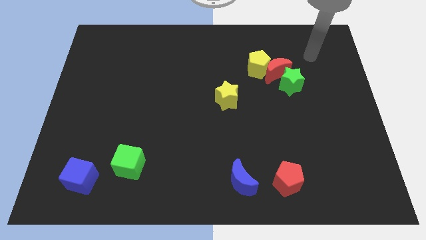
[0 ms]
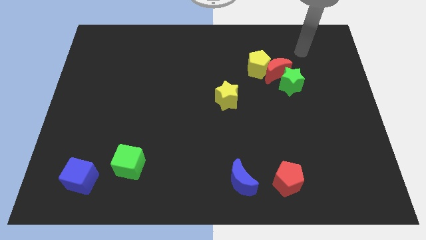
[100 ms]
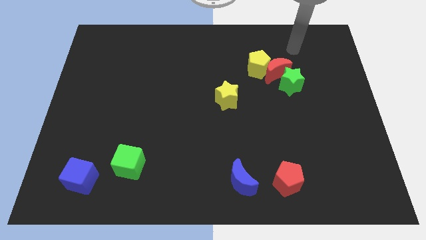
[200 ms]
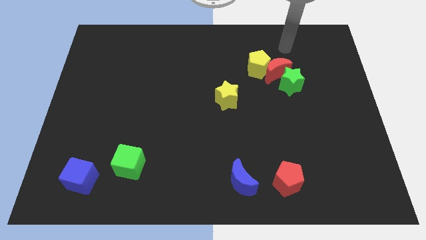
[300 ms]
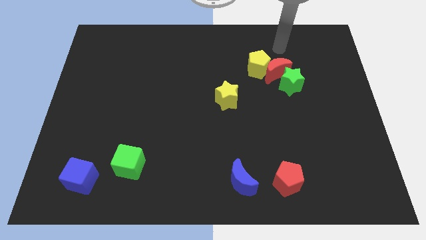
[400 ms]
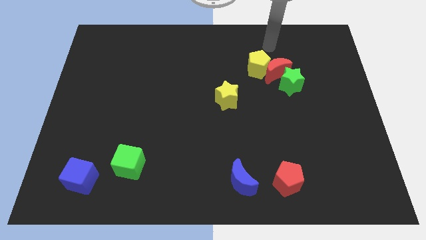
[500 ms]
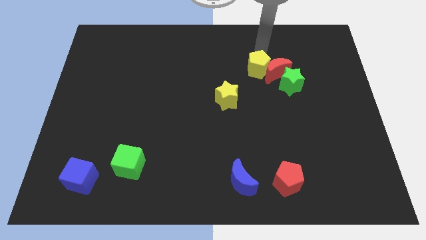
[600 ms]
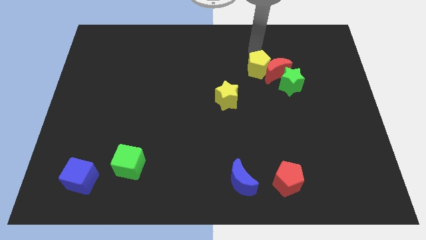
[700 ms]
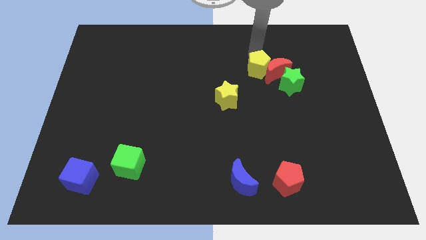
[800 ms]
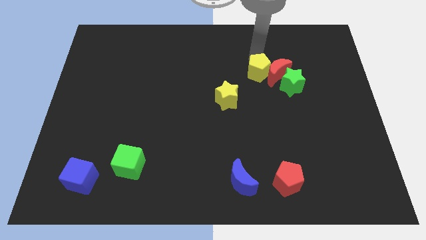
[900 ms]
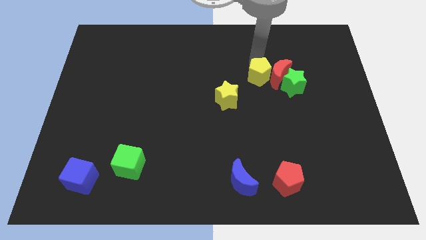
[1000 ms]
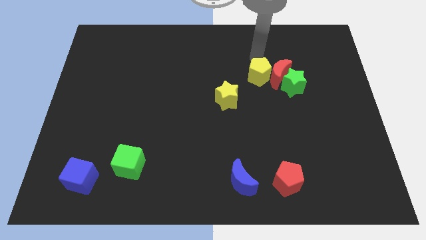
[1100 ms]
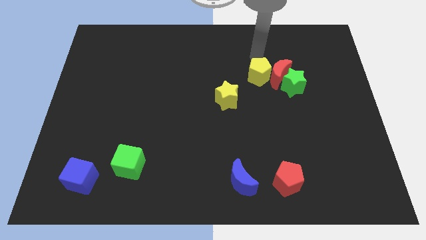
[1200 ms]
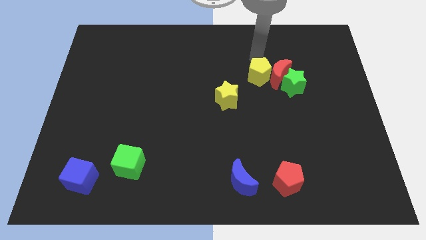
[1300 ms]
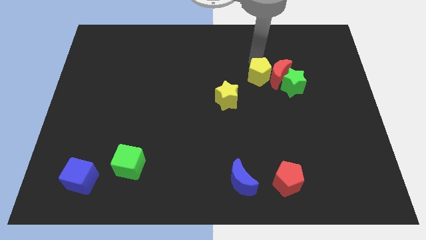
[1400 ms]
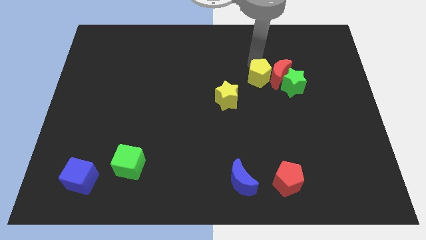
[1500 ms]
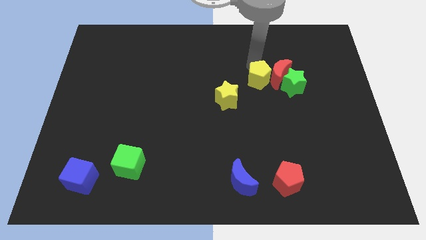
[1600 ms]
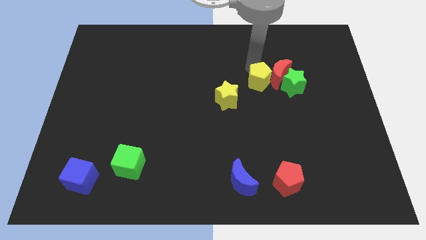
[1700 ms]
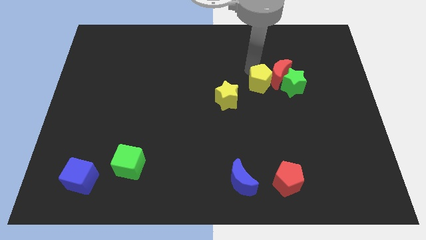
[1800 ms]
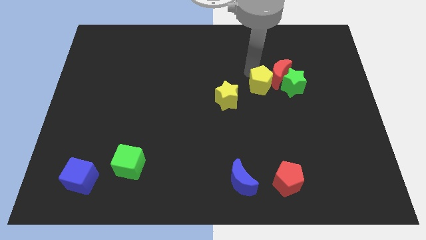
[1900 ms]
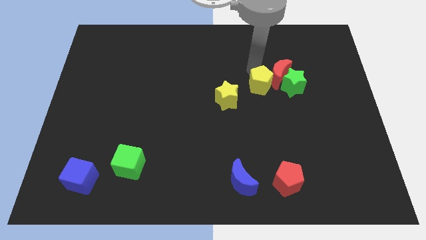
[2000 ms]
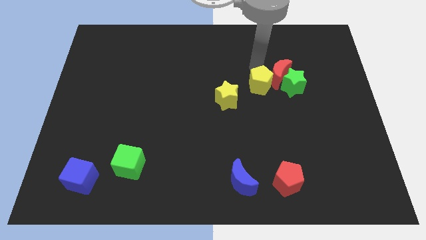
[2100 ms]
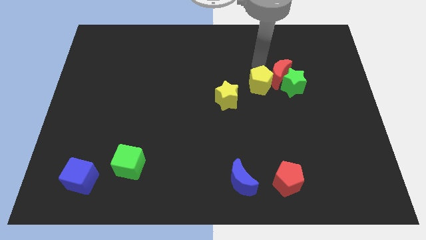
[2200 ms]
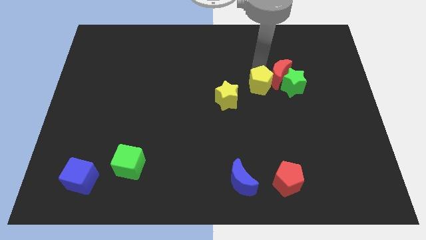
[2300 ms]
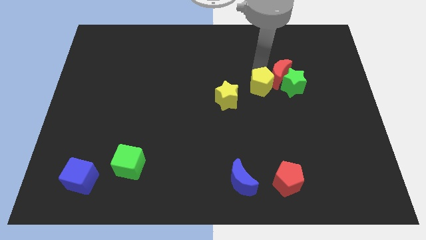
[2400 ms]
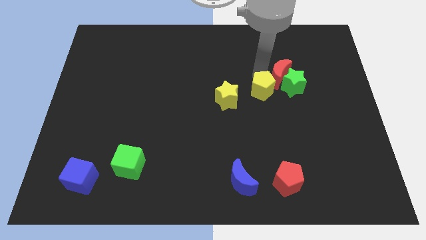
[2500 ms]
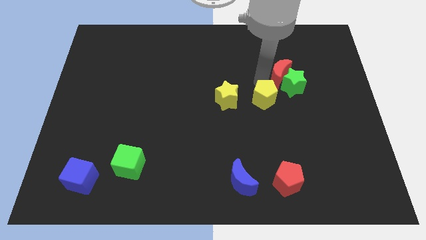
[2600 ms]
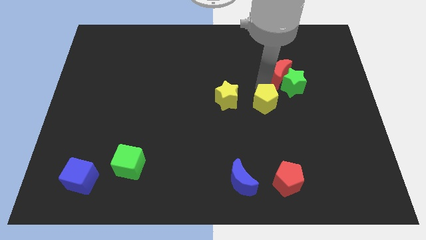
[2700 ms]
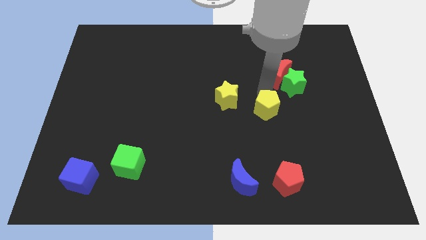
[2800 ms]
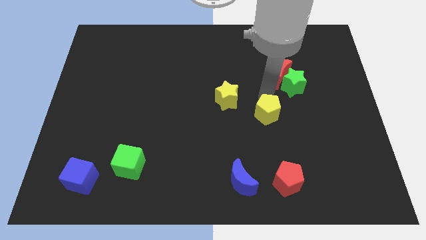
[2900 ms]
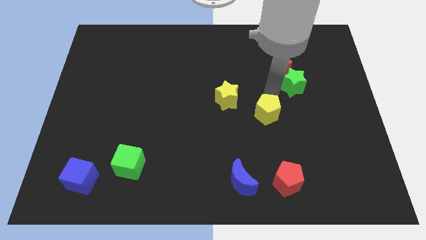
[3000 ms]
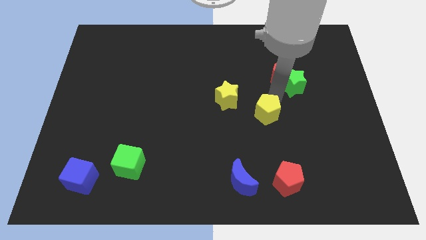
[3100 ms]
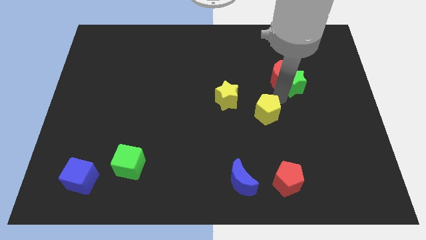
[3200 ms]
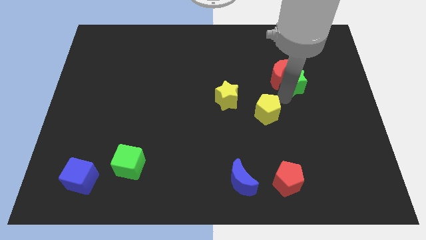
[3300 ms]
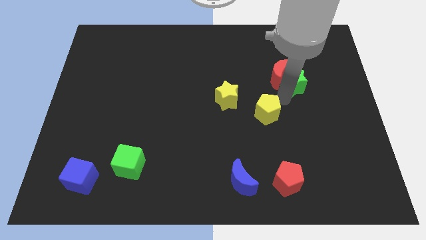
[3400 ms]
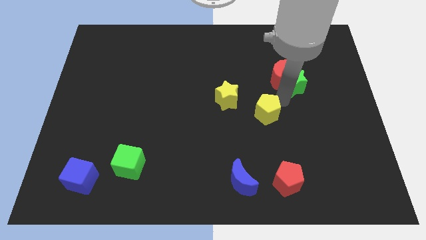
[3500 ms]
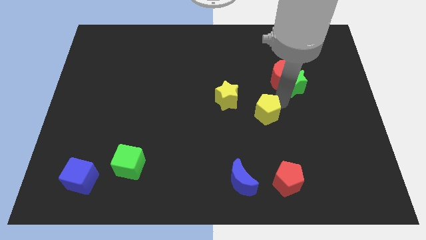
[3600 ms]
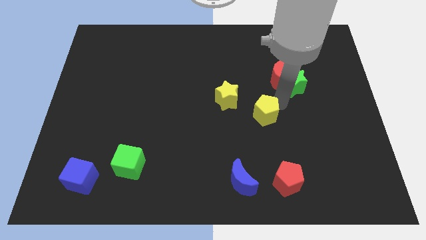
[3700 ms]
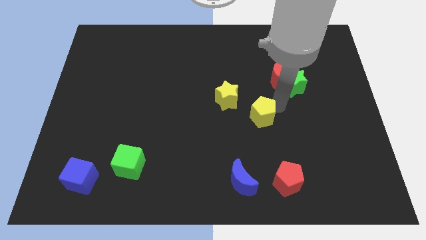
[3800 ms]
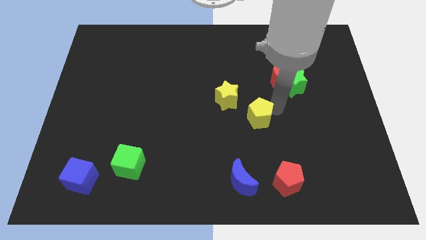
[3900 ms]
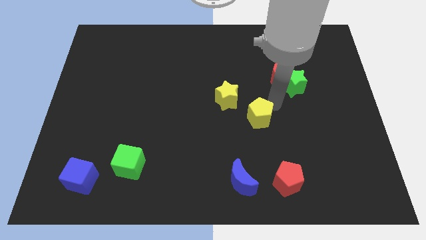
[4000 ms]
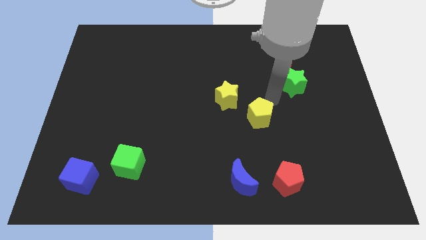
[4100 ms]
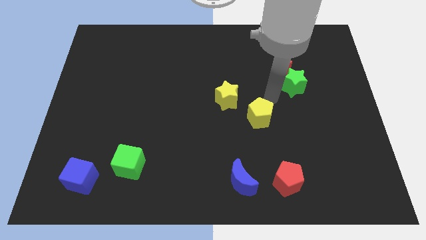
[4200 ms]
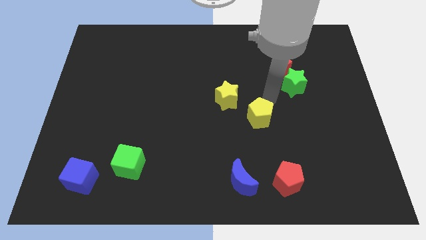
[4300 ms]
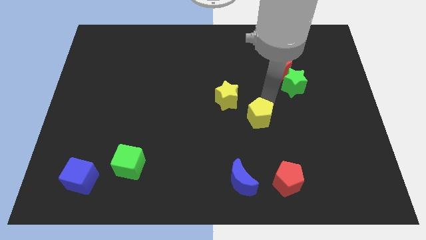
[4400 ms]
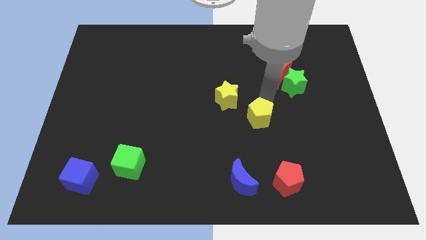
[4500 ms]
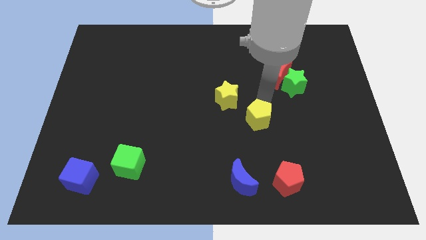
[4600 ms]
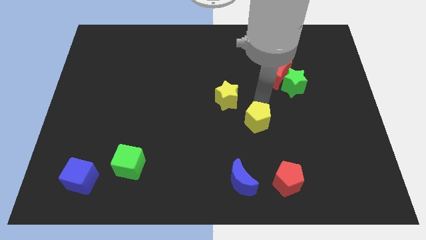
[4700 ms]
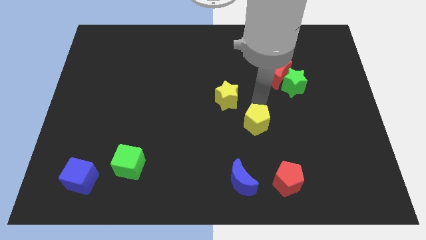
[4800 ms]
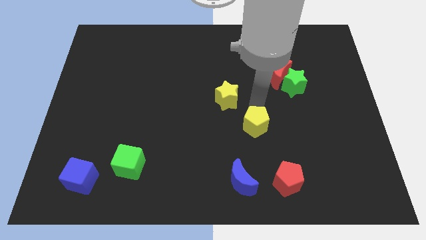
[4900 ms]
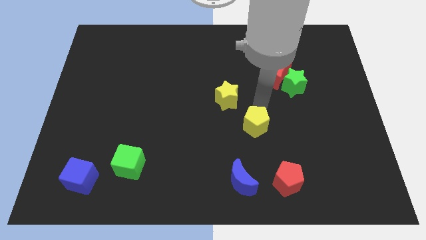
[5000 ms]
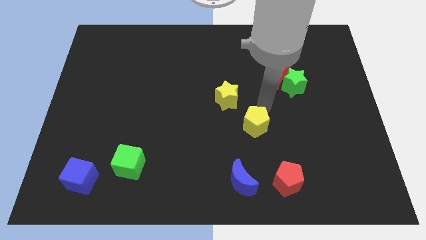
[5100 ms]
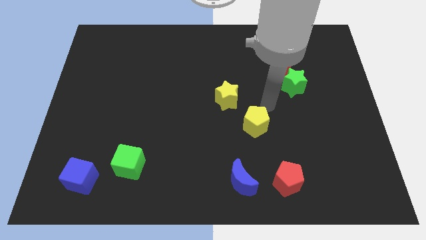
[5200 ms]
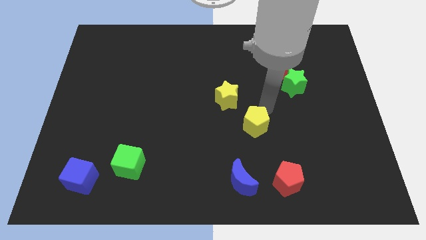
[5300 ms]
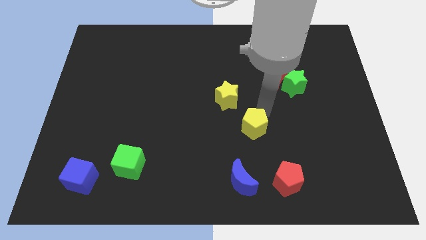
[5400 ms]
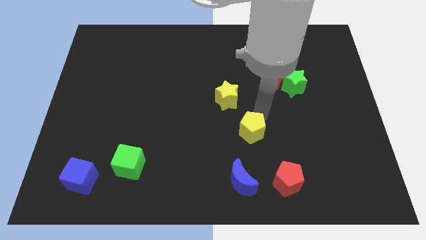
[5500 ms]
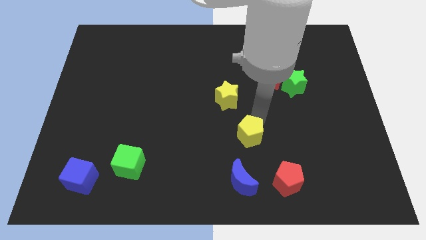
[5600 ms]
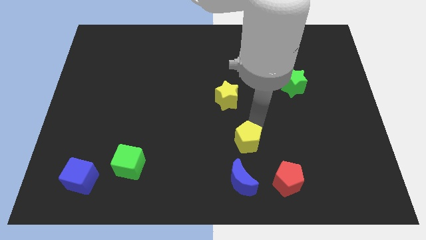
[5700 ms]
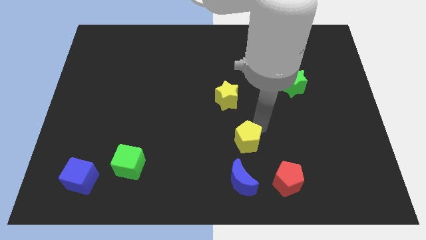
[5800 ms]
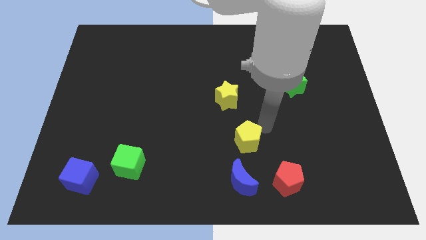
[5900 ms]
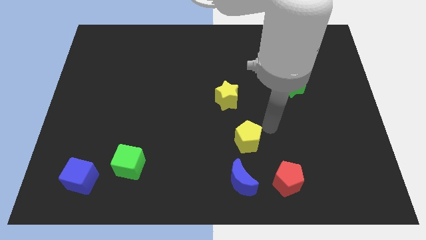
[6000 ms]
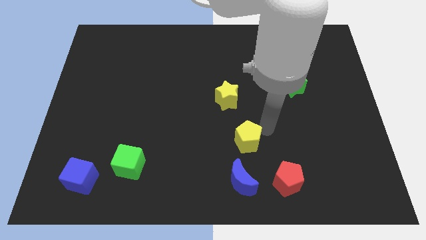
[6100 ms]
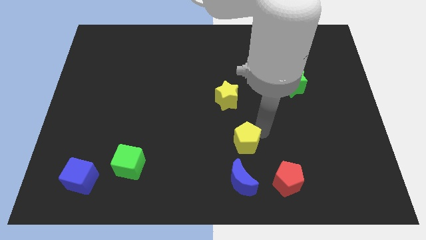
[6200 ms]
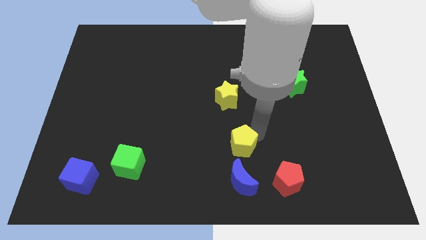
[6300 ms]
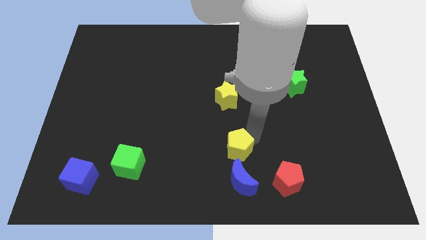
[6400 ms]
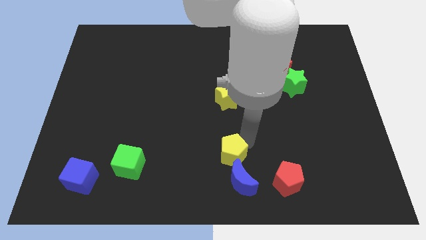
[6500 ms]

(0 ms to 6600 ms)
push the yellow pentagon diagonally up and to the left of the blue moon
